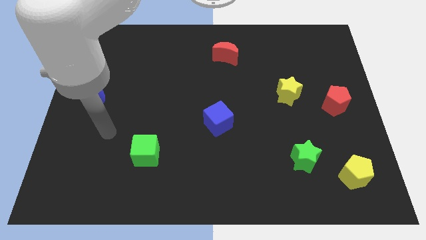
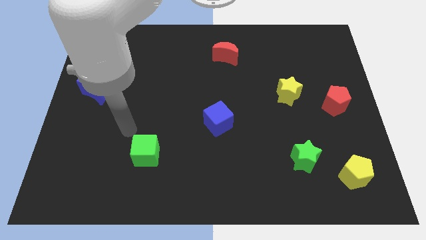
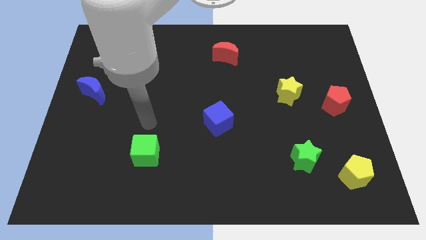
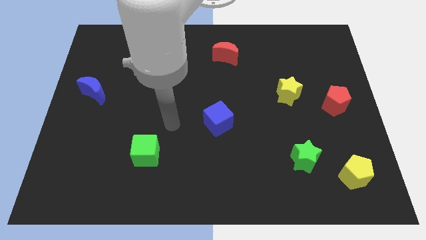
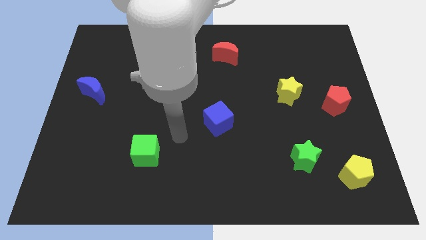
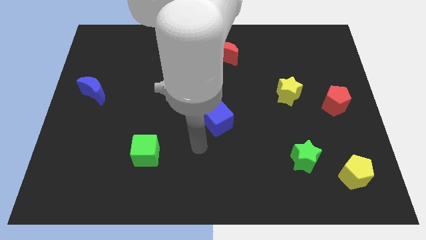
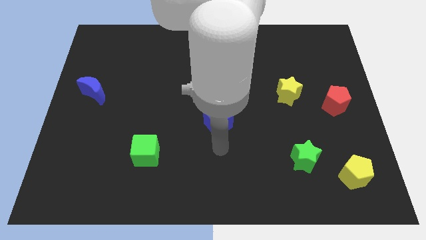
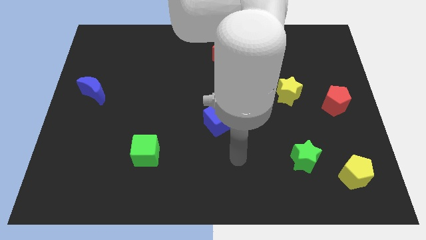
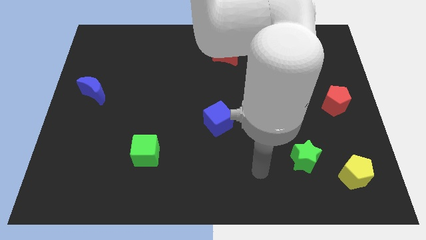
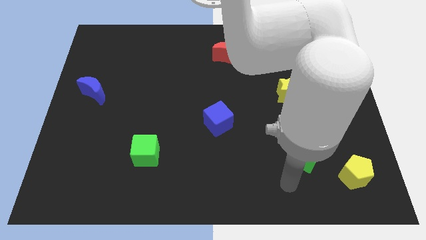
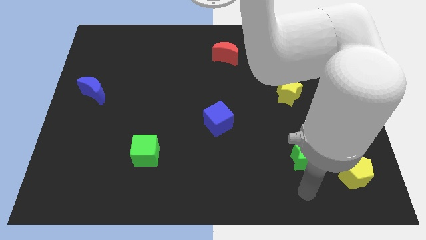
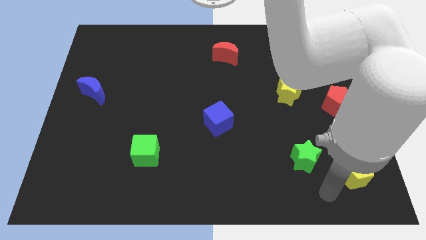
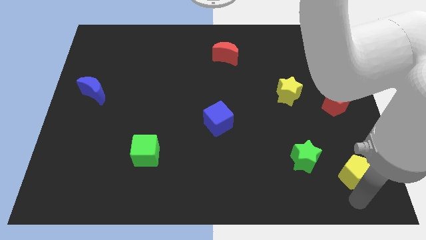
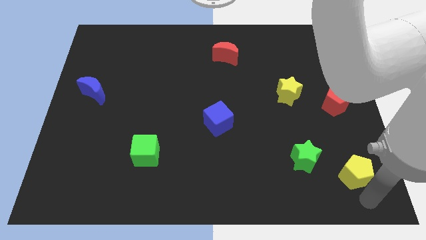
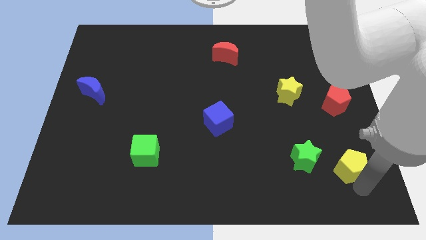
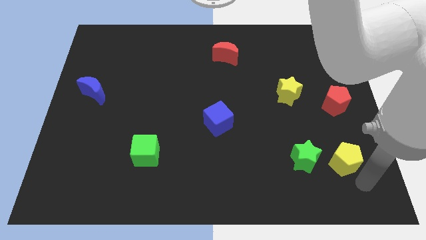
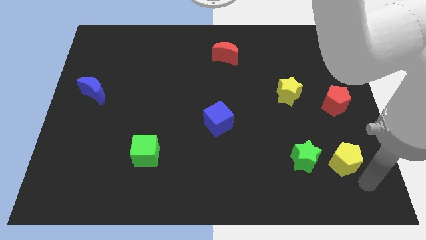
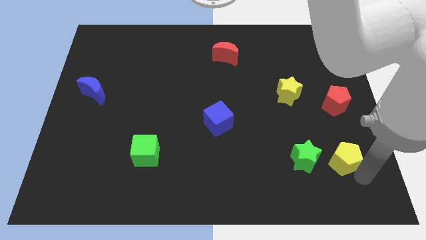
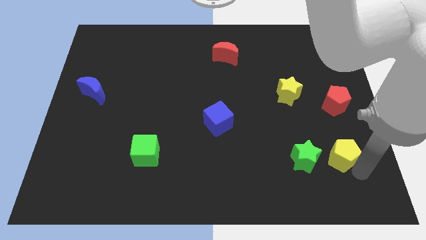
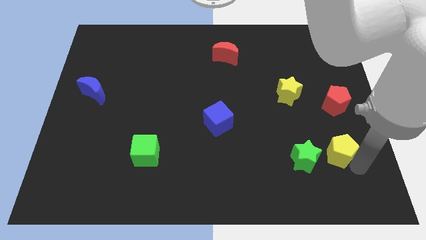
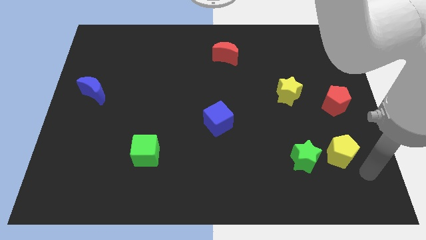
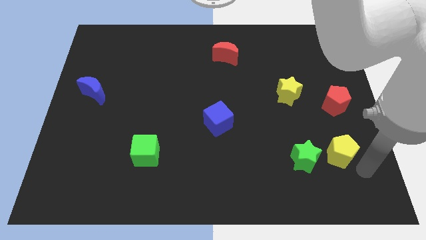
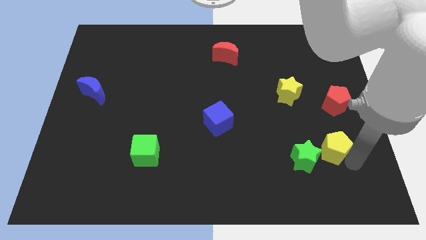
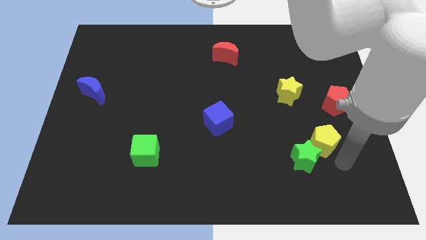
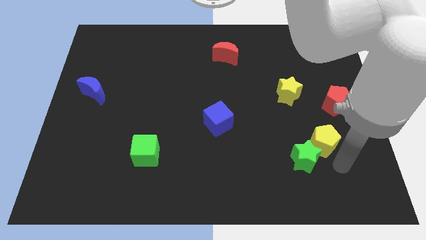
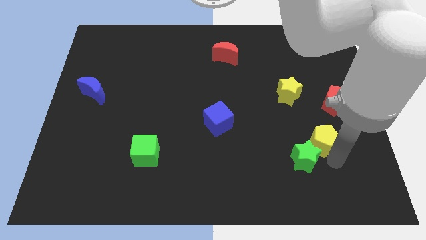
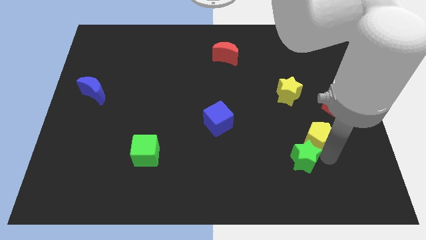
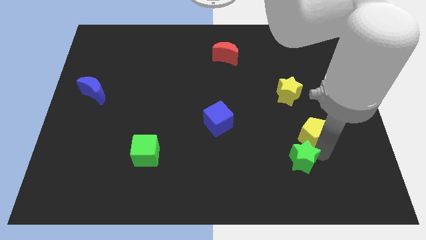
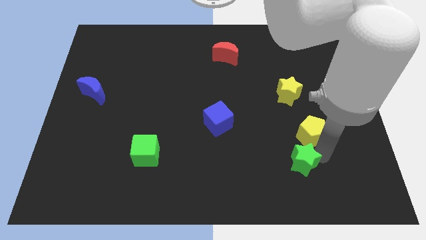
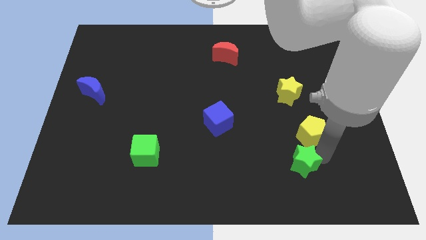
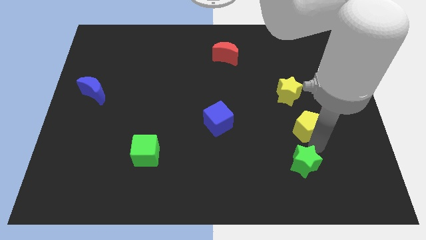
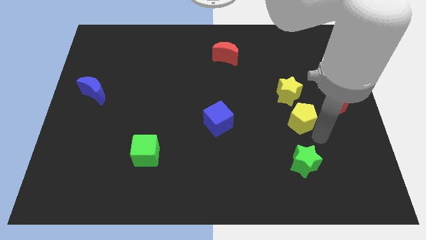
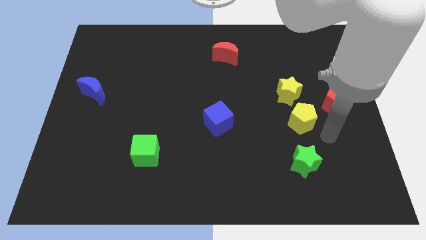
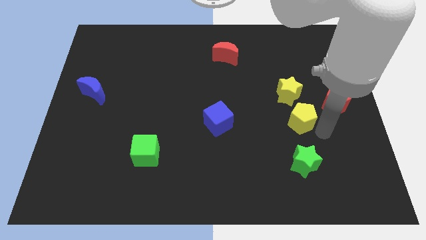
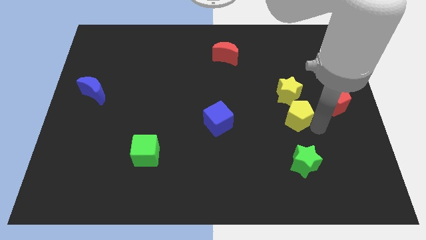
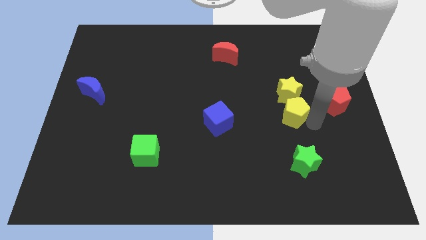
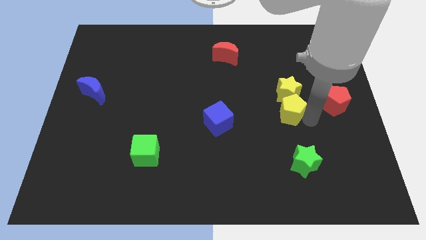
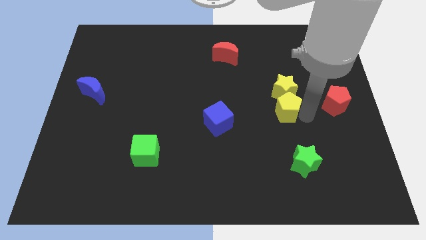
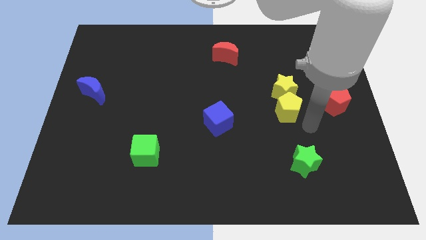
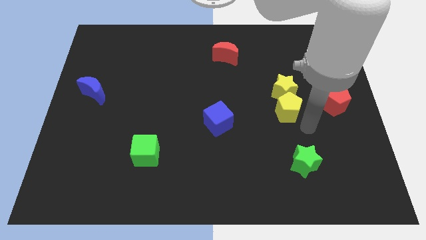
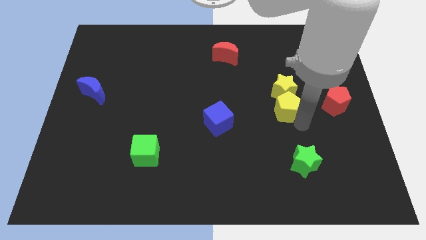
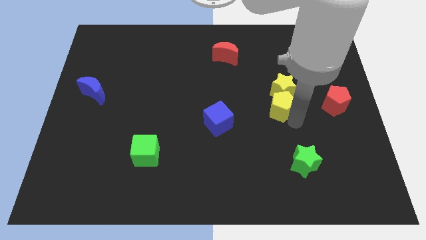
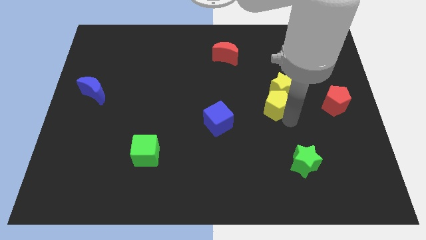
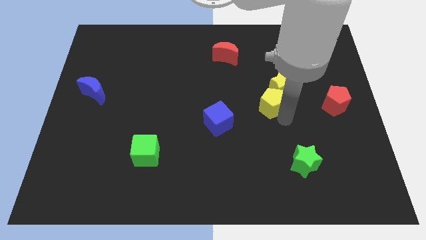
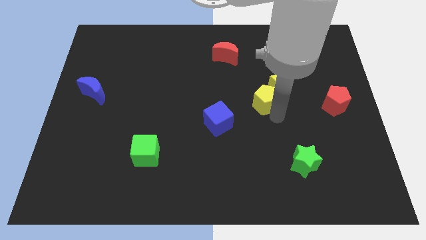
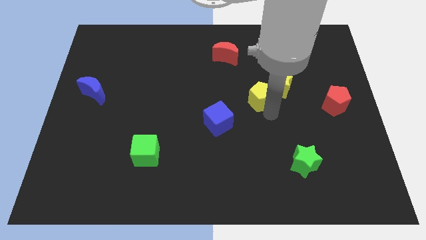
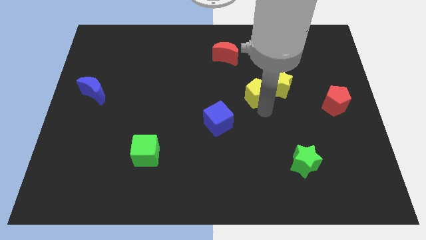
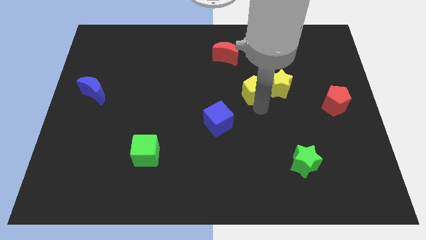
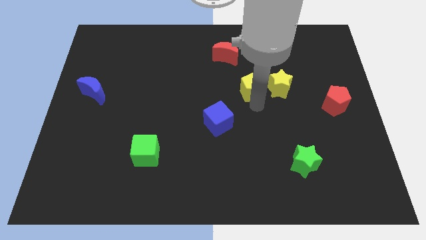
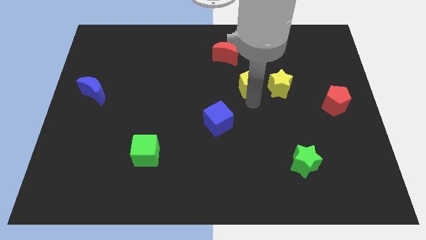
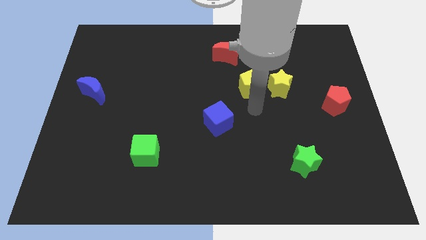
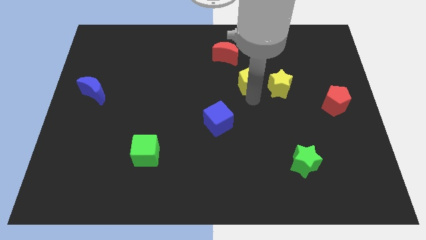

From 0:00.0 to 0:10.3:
put the yellow pentagon to the bottom right of the red moon

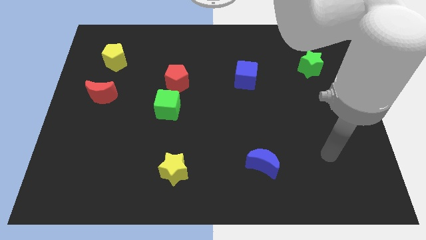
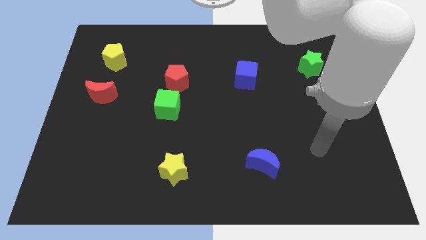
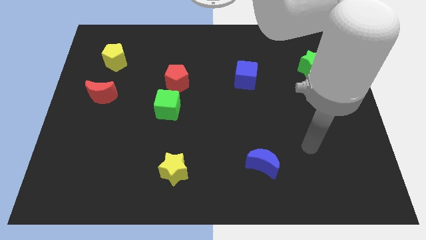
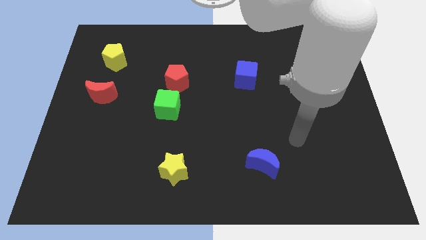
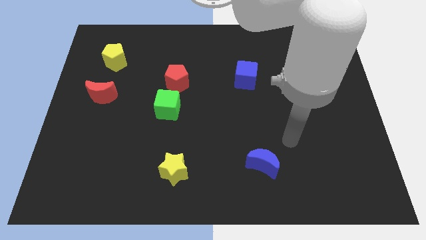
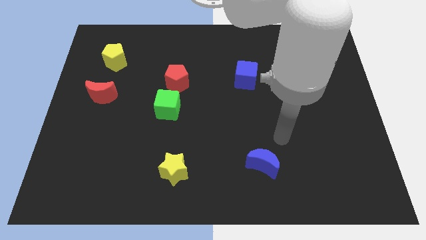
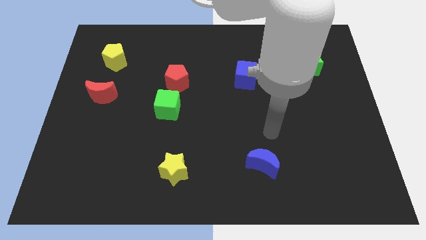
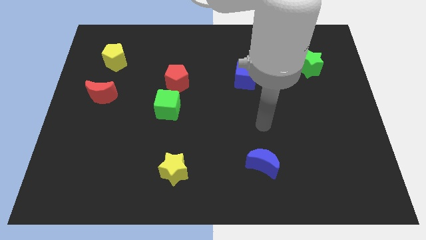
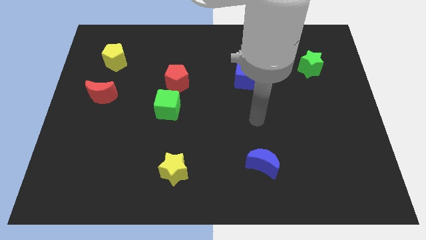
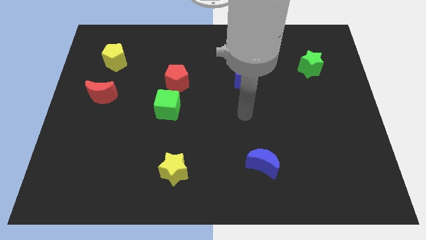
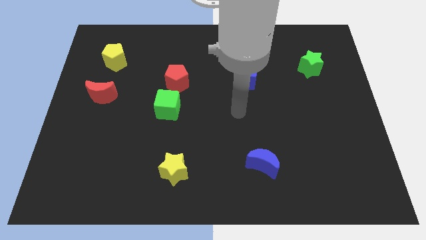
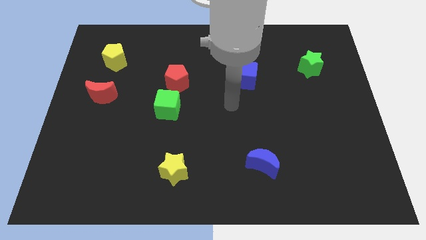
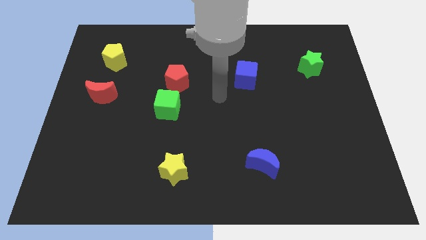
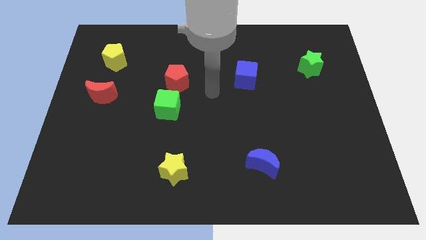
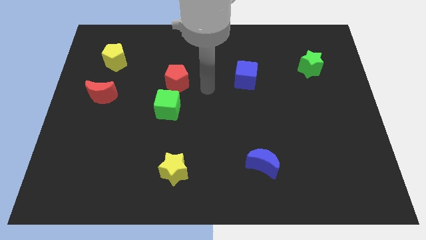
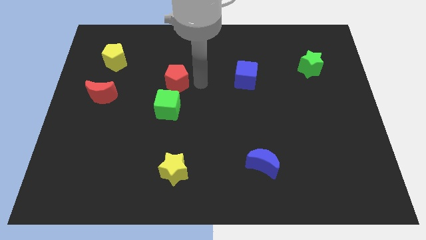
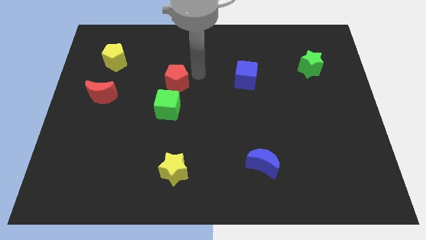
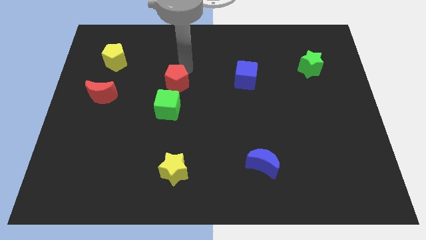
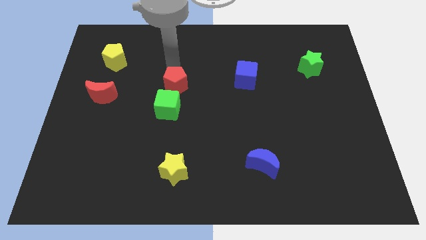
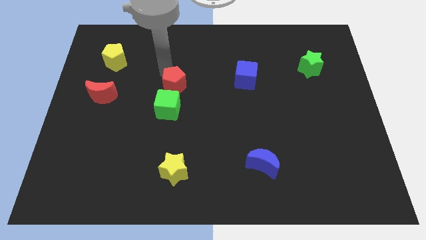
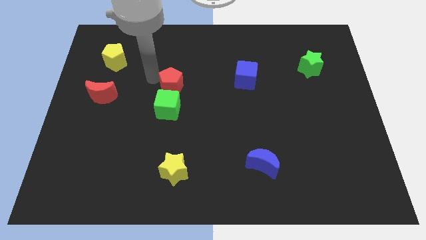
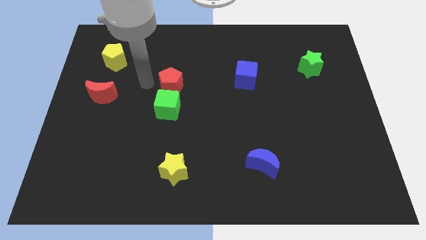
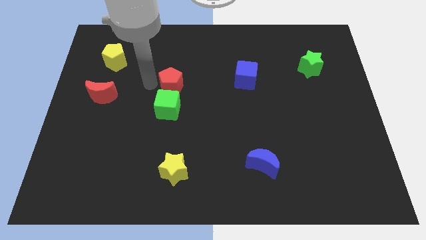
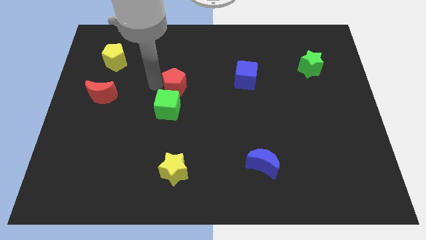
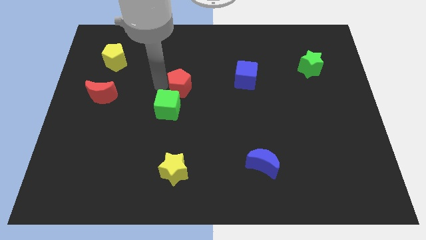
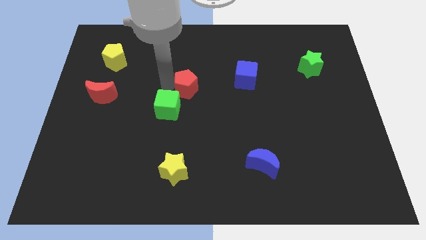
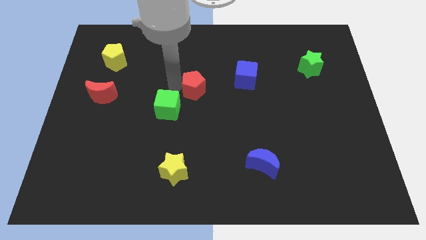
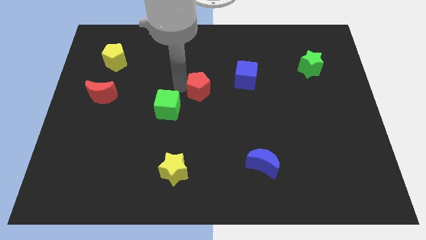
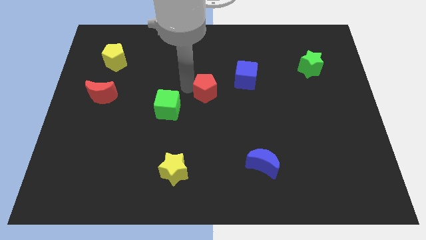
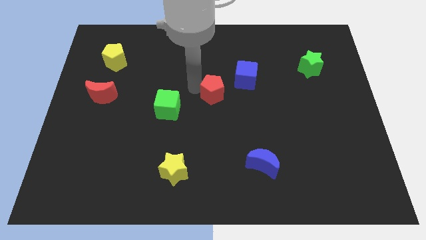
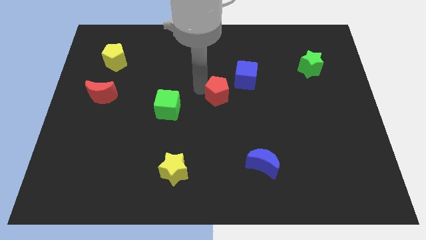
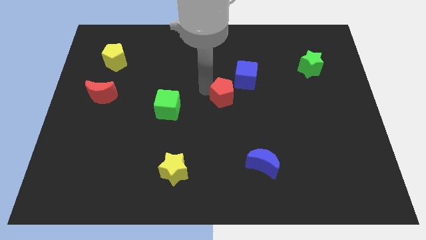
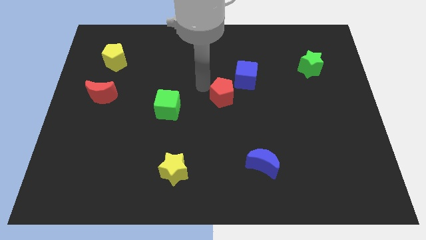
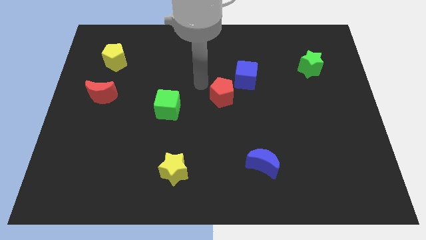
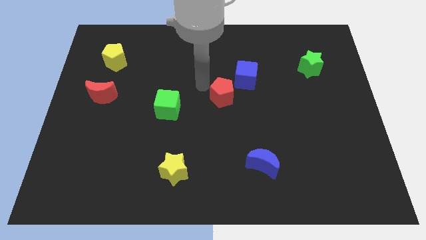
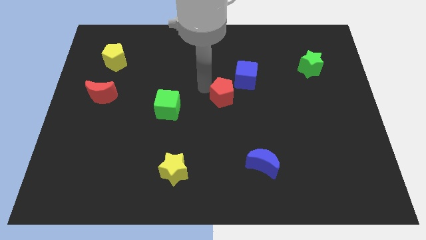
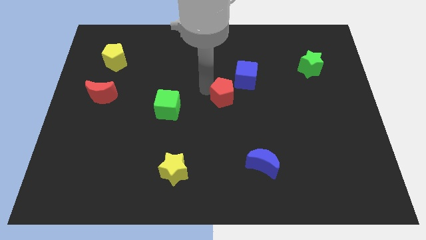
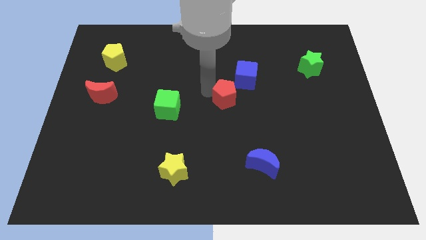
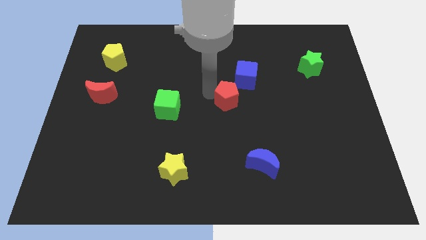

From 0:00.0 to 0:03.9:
push the red pentagon below the blue cube
